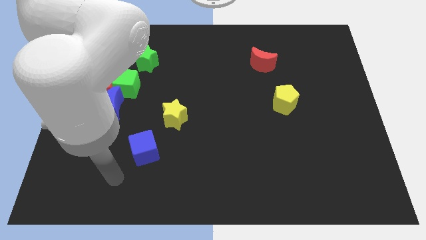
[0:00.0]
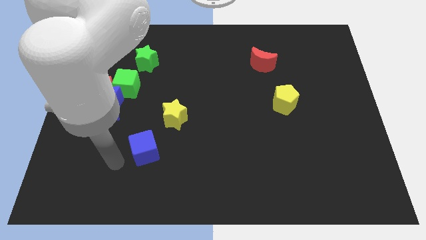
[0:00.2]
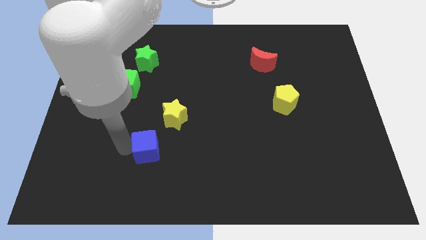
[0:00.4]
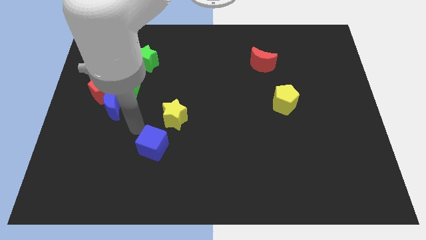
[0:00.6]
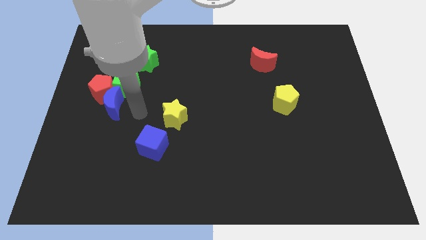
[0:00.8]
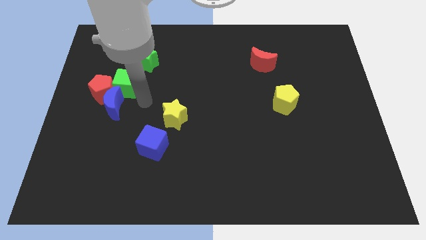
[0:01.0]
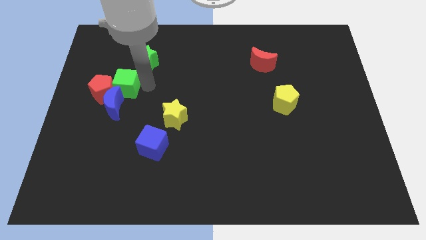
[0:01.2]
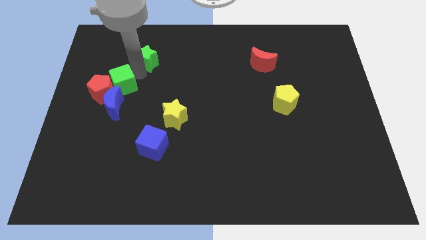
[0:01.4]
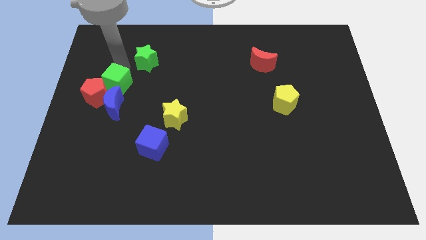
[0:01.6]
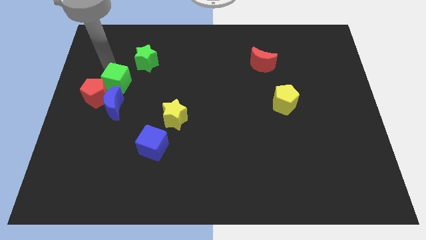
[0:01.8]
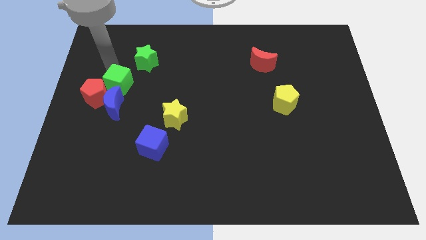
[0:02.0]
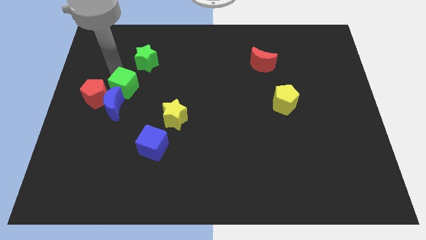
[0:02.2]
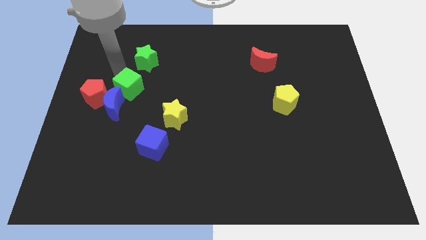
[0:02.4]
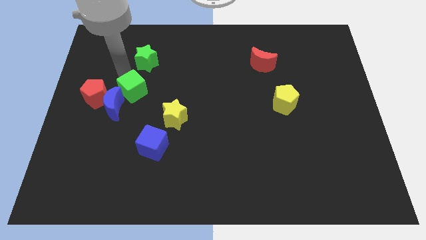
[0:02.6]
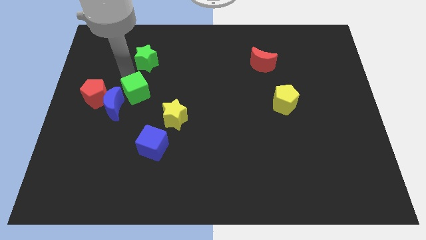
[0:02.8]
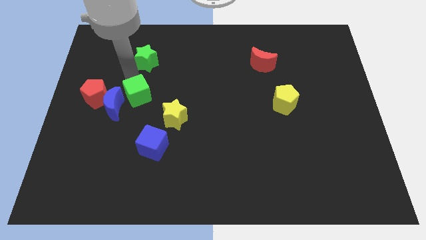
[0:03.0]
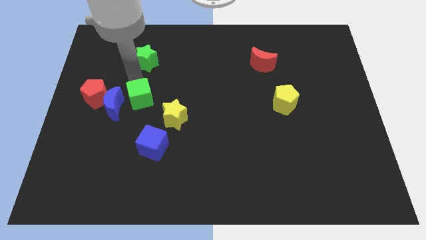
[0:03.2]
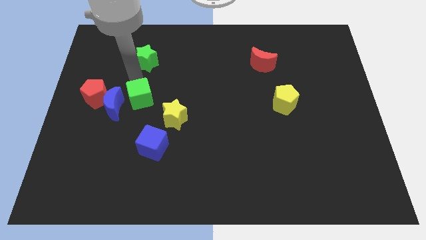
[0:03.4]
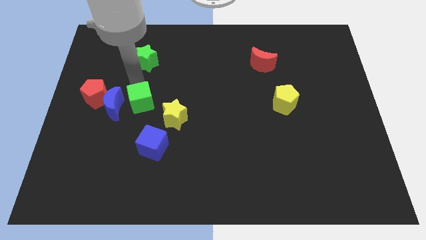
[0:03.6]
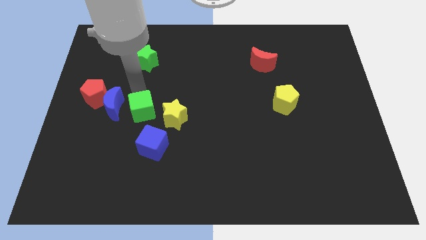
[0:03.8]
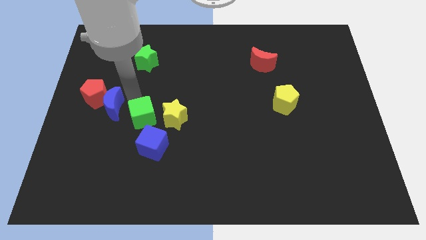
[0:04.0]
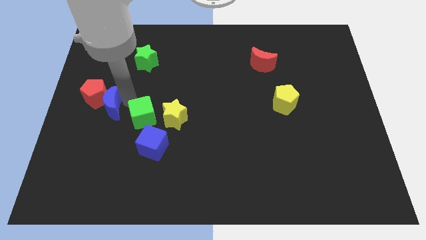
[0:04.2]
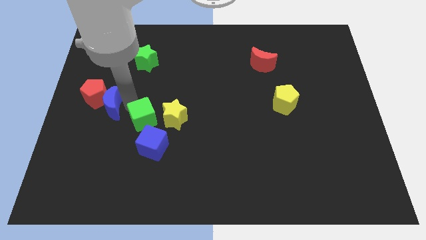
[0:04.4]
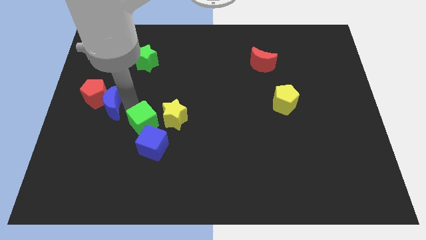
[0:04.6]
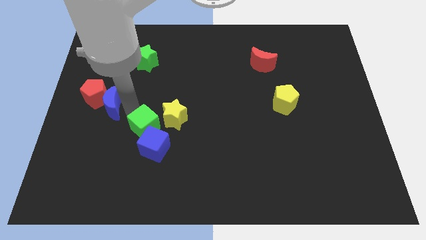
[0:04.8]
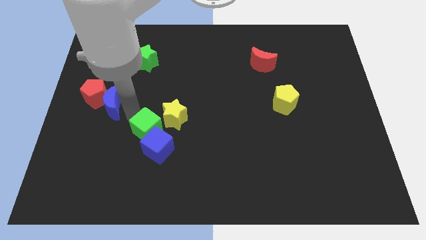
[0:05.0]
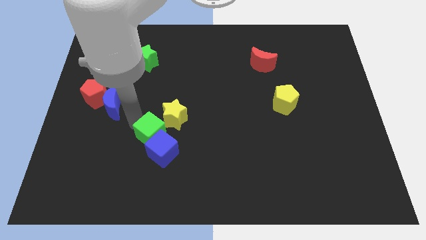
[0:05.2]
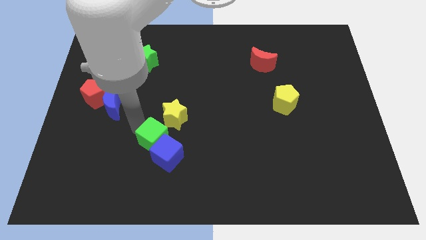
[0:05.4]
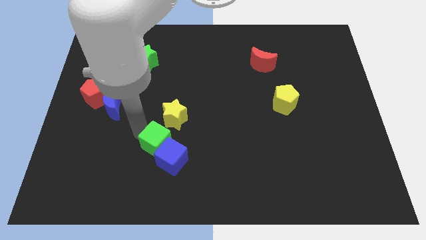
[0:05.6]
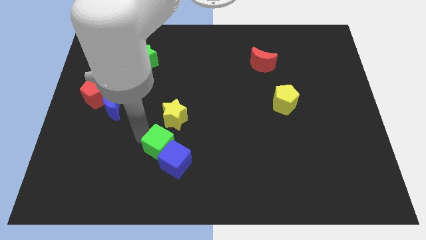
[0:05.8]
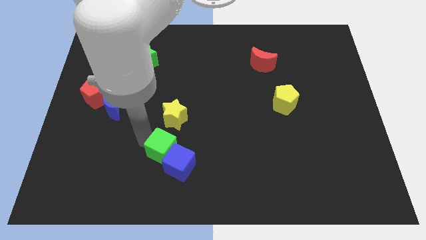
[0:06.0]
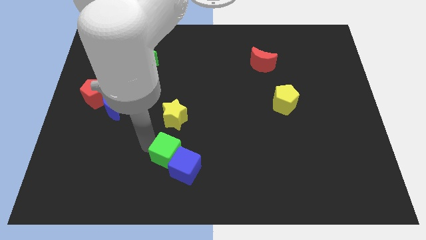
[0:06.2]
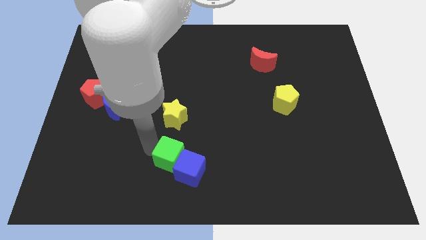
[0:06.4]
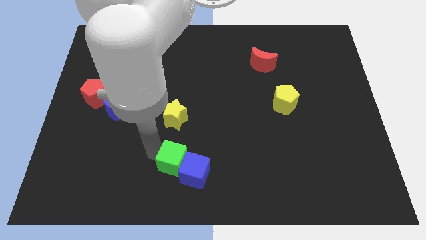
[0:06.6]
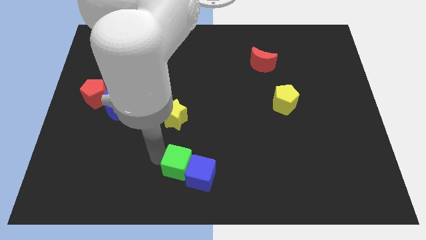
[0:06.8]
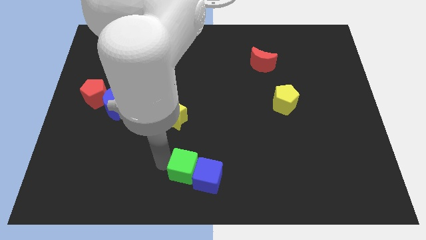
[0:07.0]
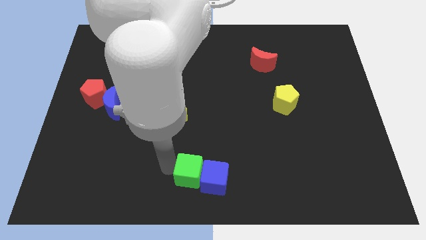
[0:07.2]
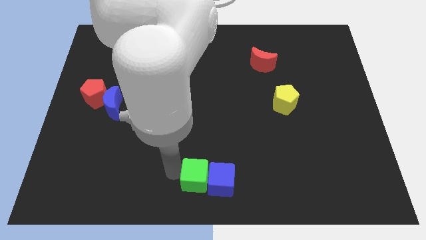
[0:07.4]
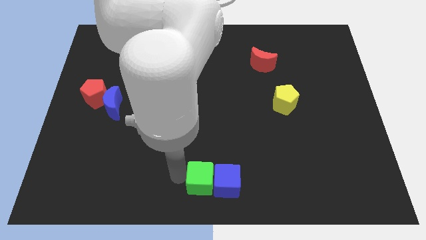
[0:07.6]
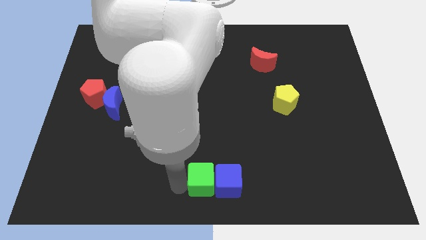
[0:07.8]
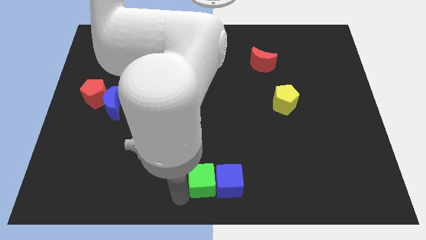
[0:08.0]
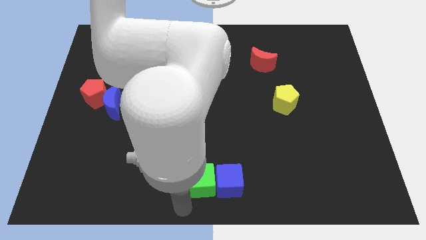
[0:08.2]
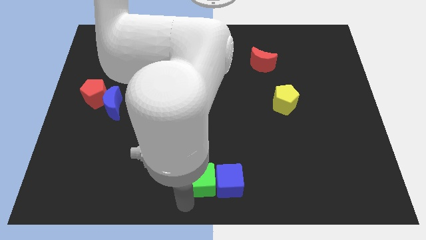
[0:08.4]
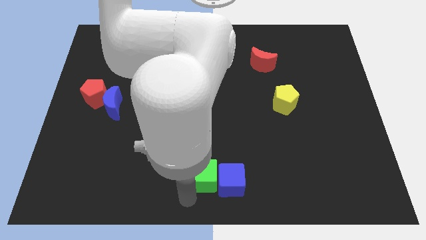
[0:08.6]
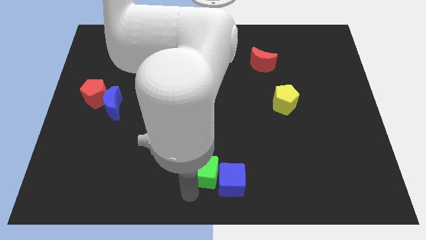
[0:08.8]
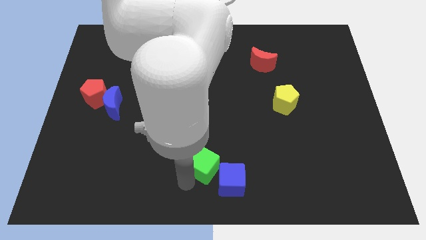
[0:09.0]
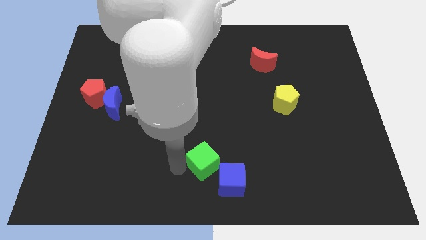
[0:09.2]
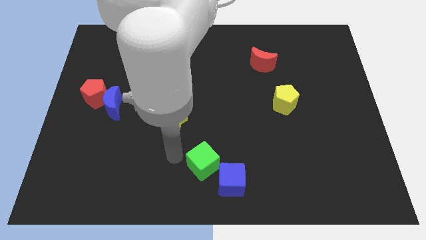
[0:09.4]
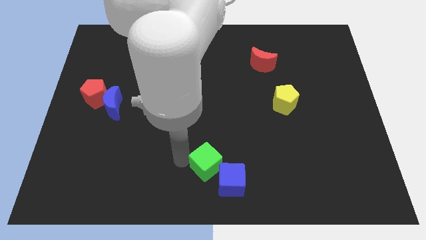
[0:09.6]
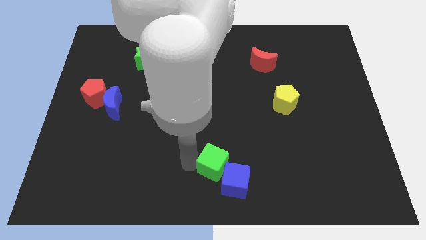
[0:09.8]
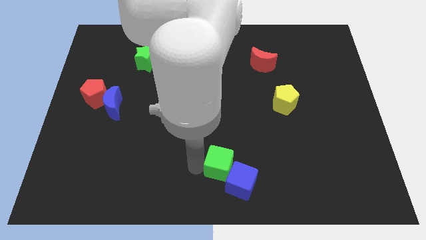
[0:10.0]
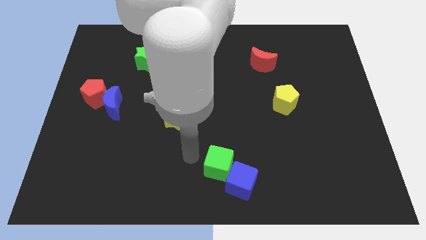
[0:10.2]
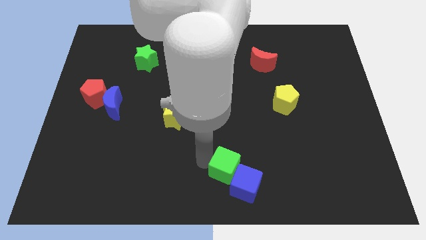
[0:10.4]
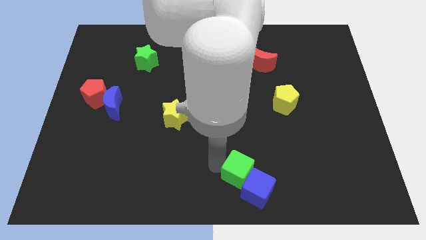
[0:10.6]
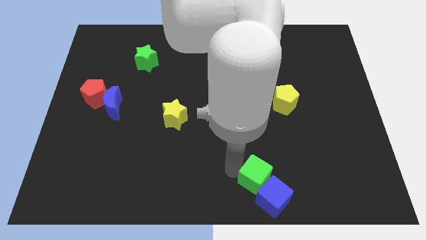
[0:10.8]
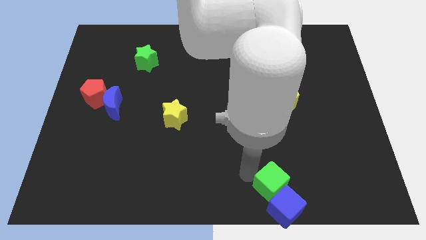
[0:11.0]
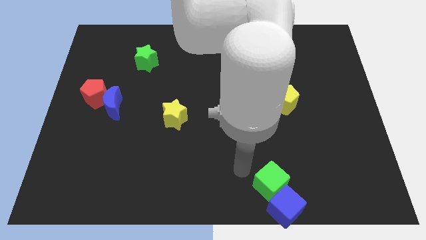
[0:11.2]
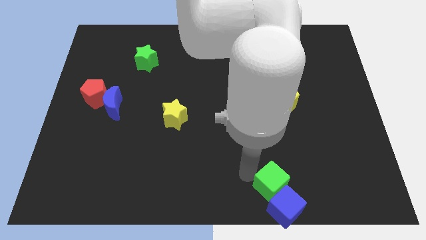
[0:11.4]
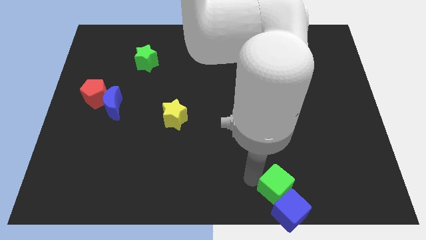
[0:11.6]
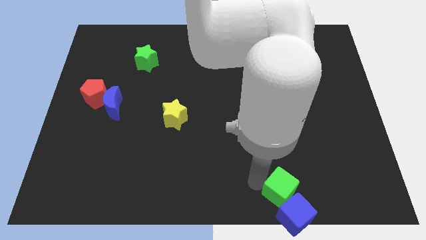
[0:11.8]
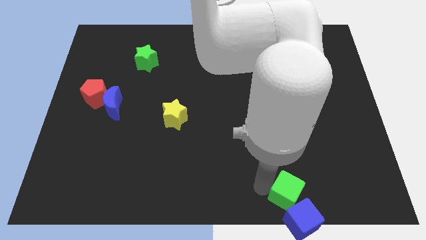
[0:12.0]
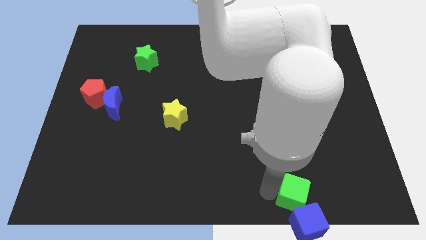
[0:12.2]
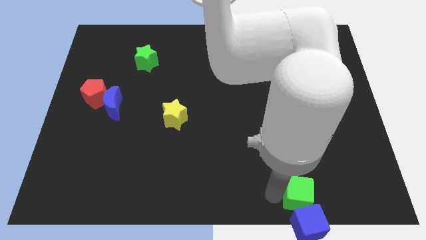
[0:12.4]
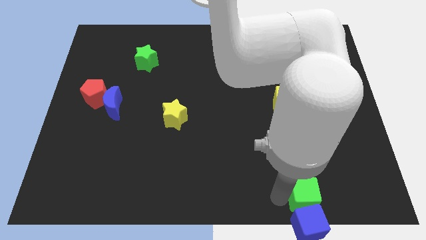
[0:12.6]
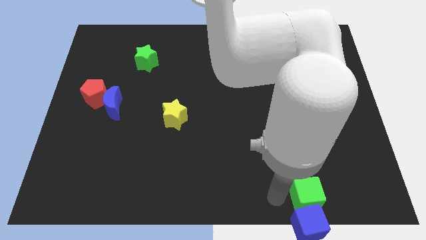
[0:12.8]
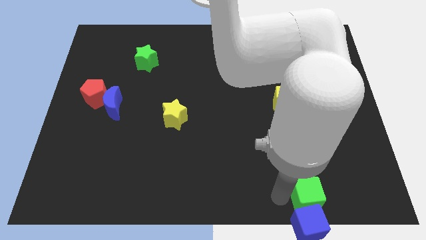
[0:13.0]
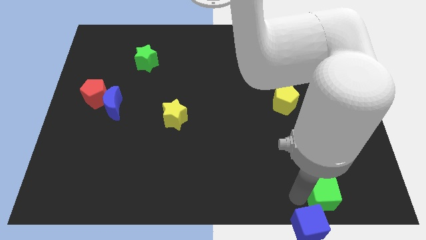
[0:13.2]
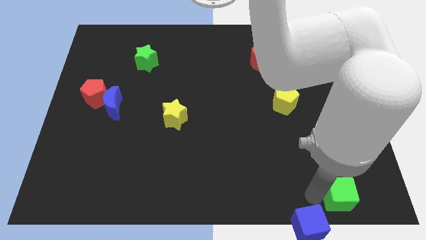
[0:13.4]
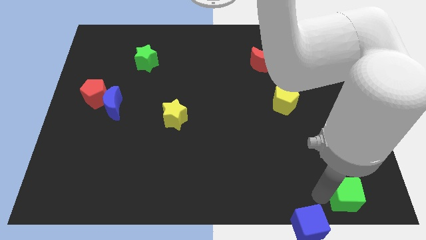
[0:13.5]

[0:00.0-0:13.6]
move the green cube to the bottom right corner
